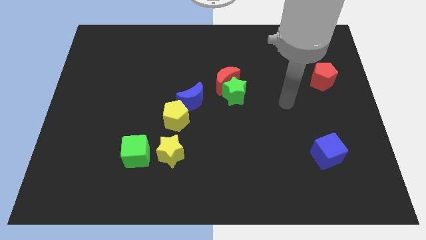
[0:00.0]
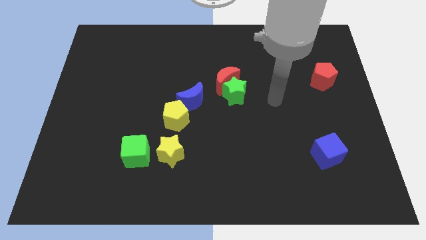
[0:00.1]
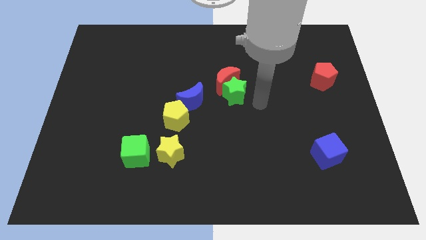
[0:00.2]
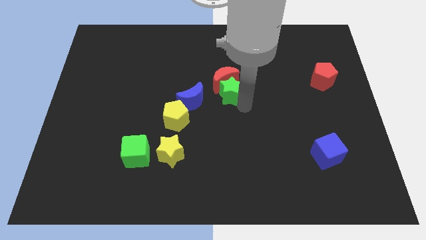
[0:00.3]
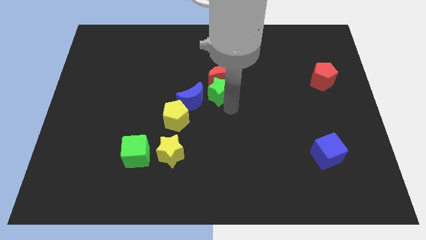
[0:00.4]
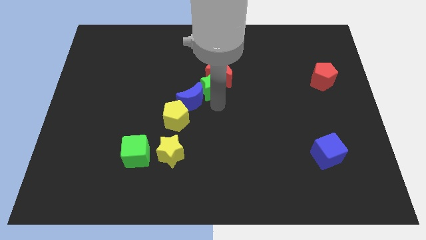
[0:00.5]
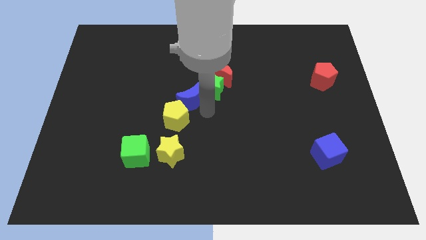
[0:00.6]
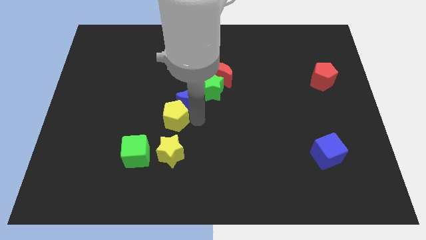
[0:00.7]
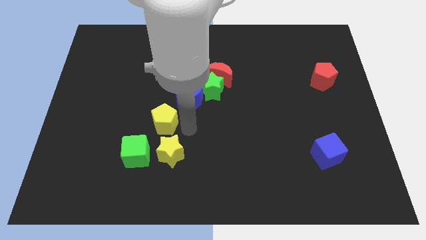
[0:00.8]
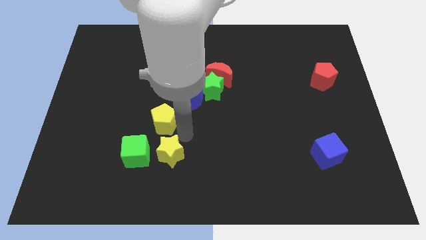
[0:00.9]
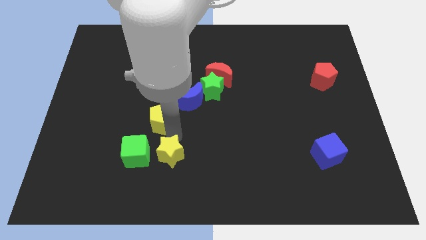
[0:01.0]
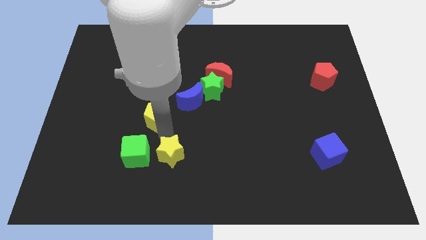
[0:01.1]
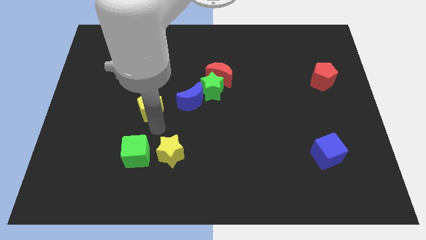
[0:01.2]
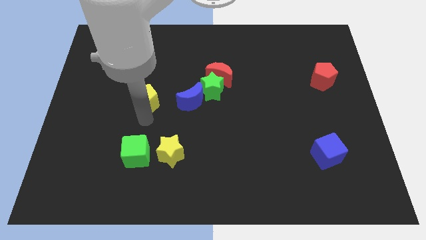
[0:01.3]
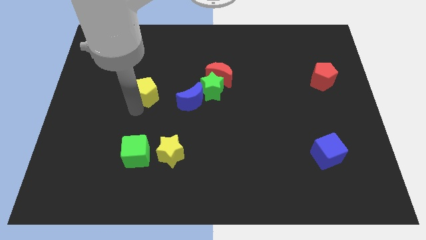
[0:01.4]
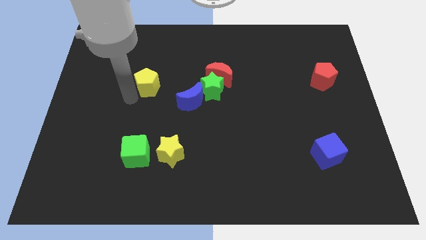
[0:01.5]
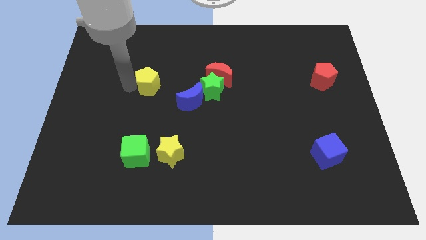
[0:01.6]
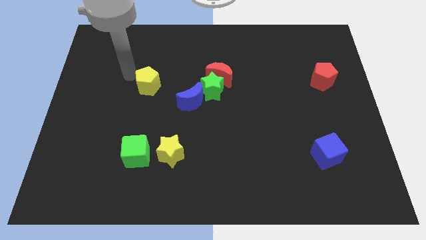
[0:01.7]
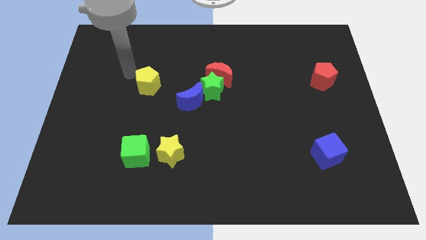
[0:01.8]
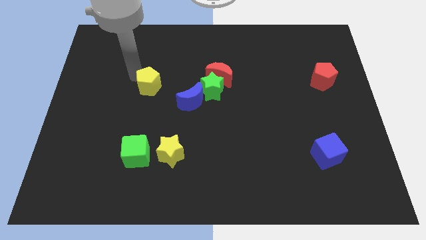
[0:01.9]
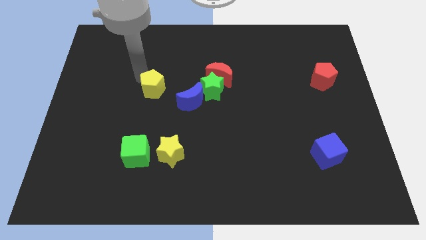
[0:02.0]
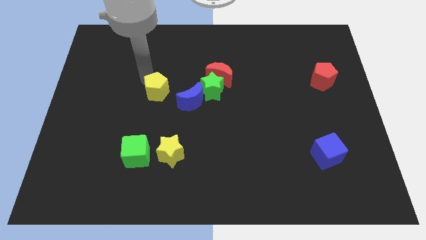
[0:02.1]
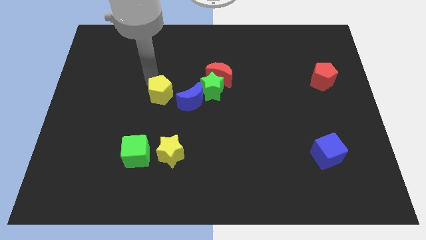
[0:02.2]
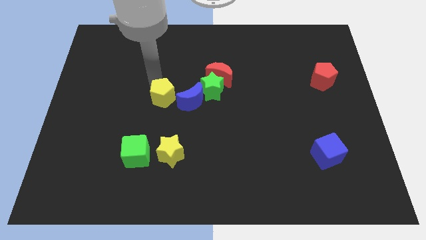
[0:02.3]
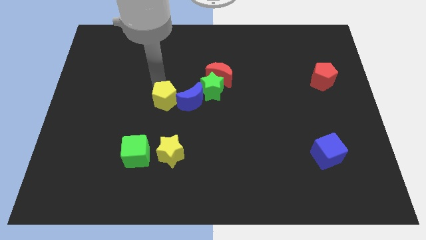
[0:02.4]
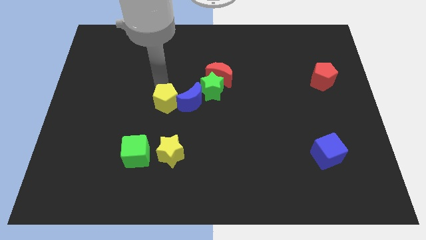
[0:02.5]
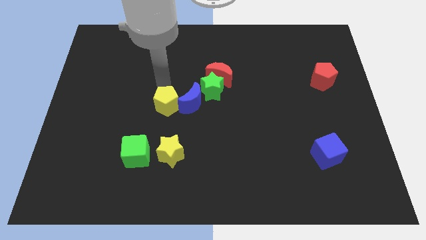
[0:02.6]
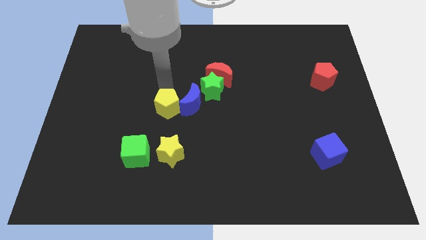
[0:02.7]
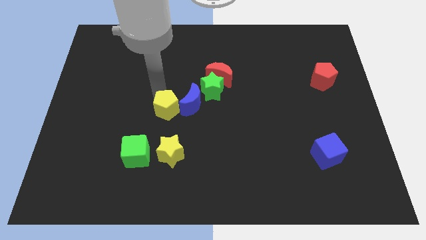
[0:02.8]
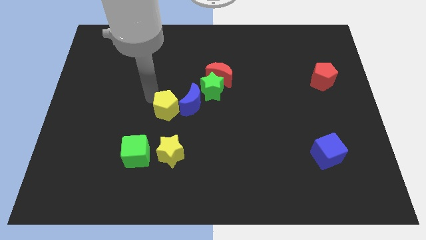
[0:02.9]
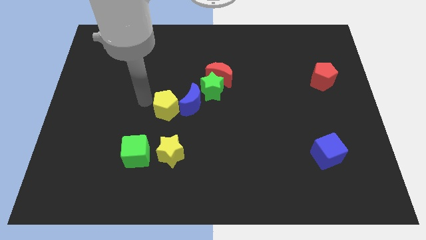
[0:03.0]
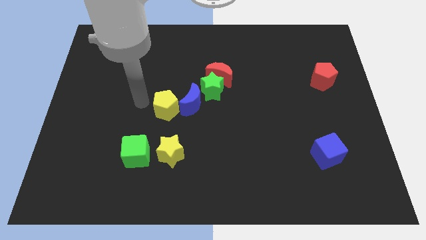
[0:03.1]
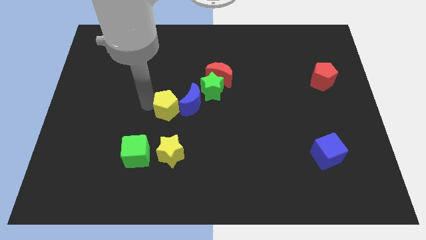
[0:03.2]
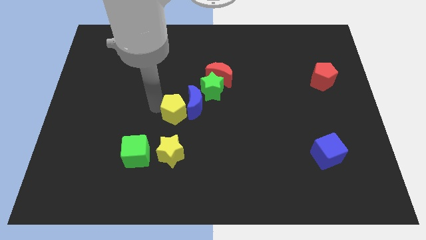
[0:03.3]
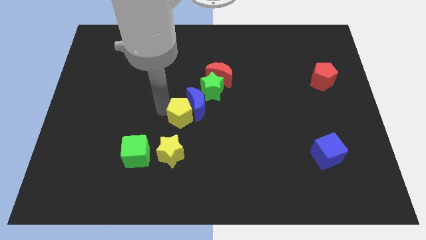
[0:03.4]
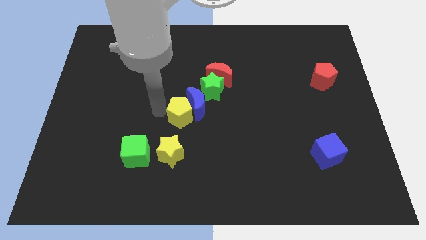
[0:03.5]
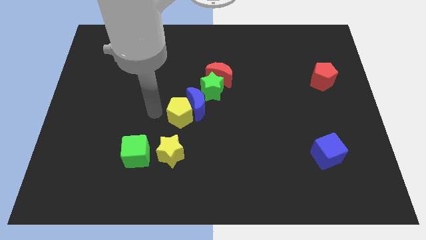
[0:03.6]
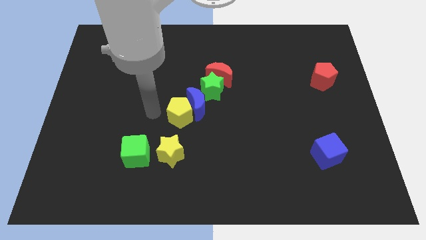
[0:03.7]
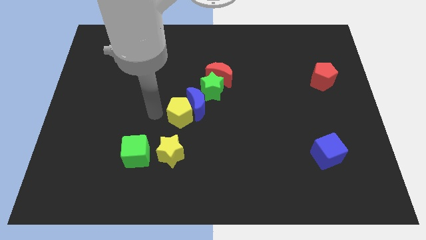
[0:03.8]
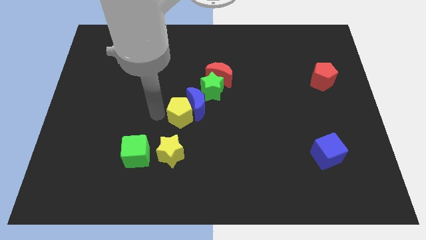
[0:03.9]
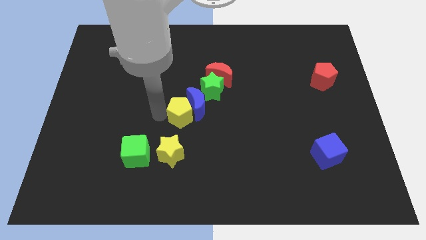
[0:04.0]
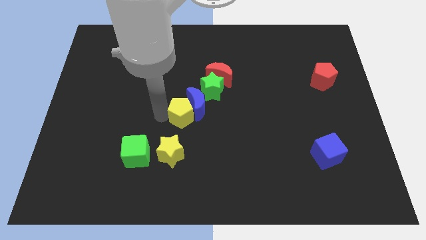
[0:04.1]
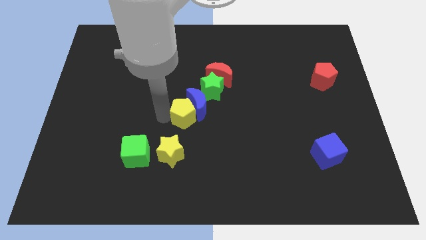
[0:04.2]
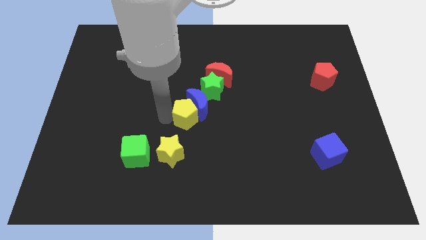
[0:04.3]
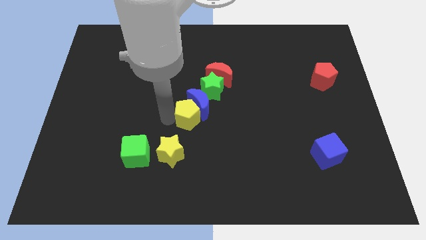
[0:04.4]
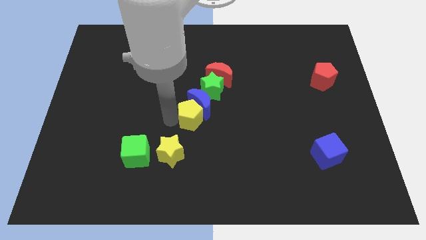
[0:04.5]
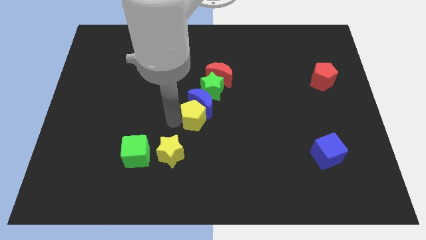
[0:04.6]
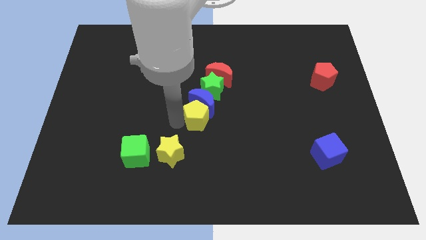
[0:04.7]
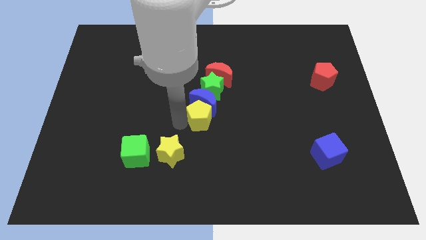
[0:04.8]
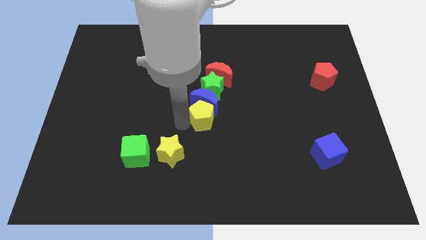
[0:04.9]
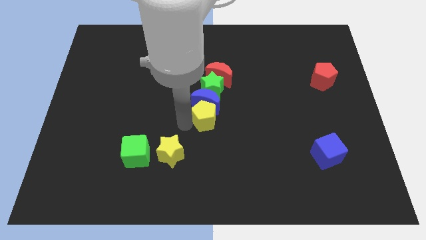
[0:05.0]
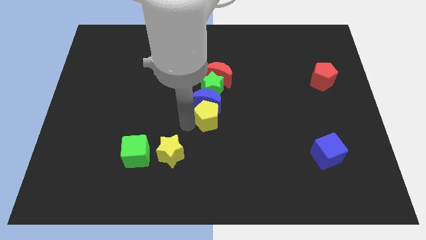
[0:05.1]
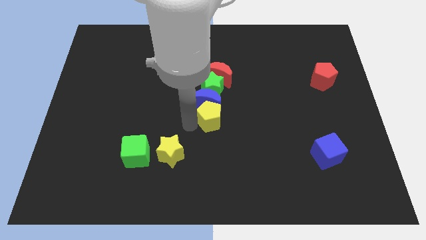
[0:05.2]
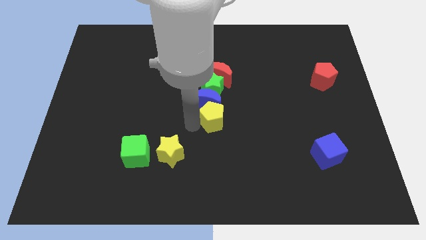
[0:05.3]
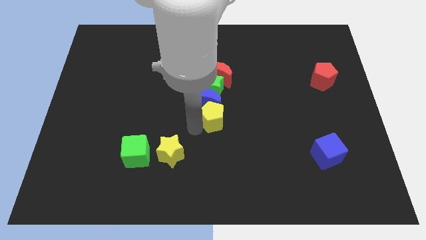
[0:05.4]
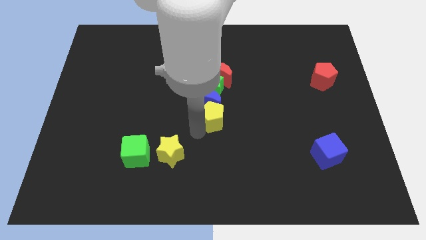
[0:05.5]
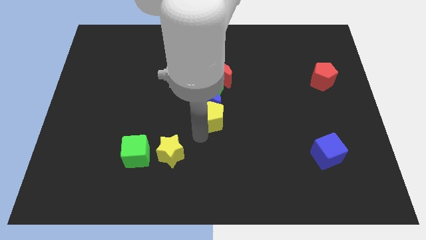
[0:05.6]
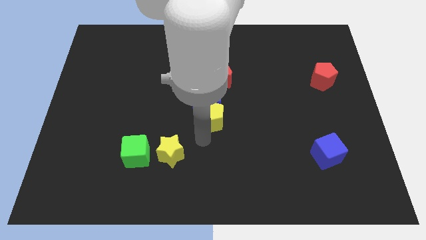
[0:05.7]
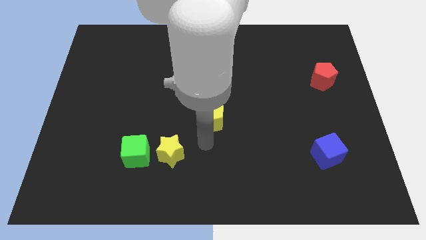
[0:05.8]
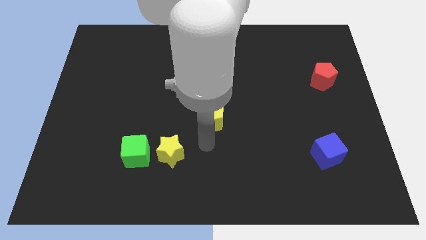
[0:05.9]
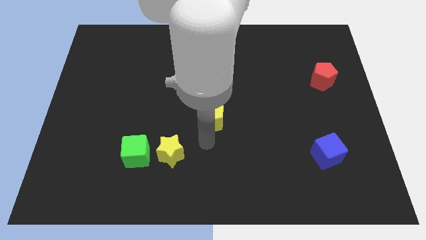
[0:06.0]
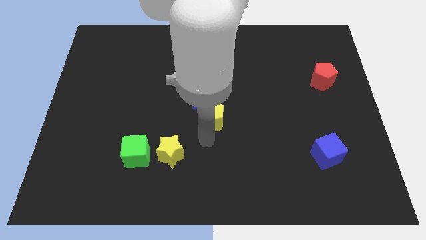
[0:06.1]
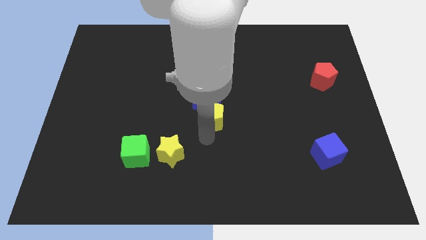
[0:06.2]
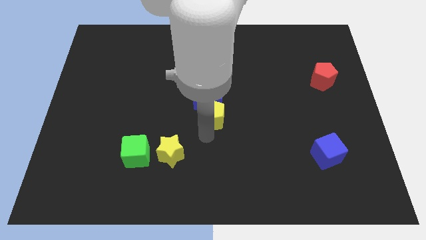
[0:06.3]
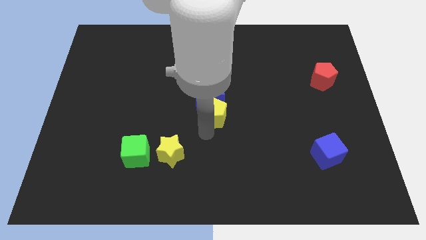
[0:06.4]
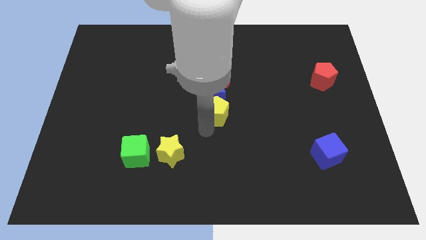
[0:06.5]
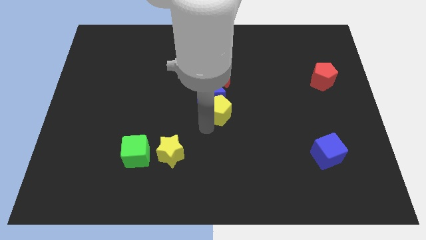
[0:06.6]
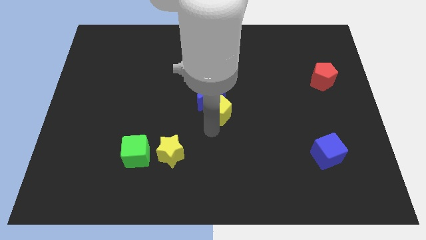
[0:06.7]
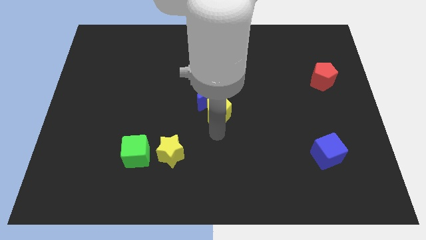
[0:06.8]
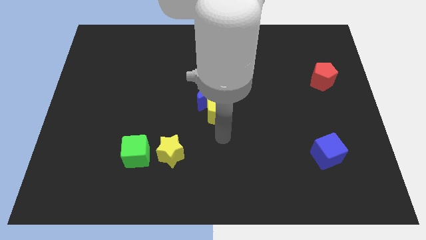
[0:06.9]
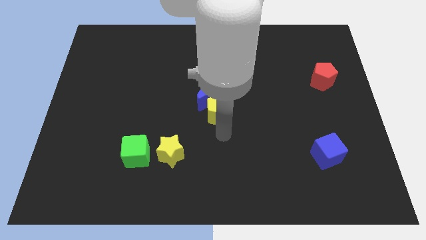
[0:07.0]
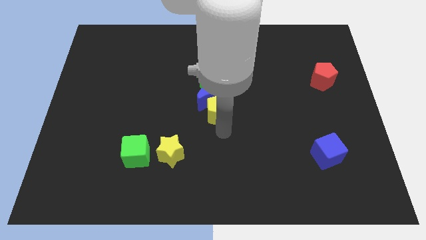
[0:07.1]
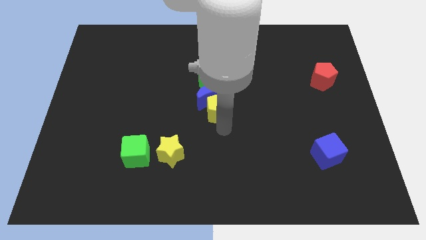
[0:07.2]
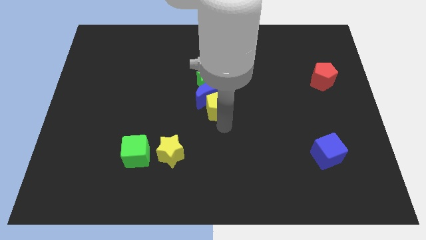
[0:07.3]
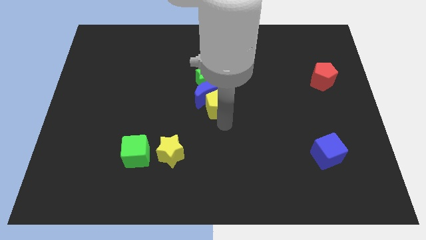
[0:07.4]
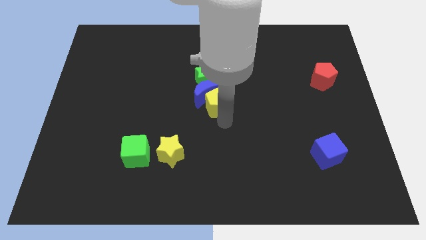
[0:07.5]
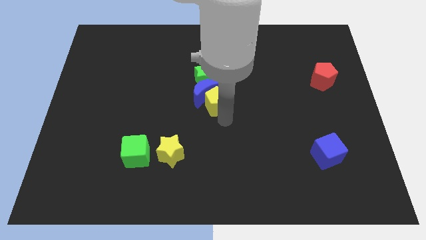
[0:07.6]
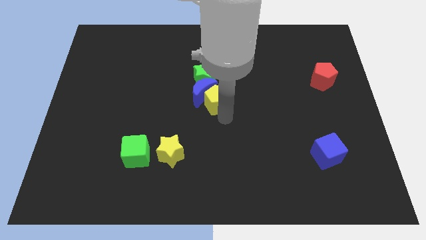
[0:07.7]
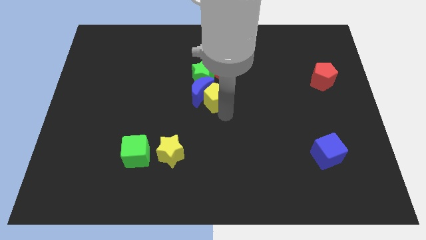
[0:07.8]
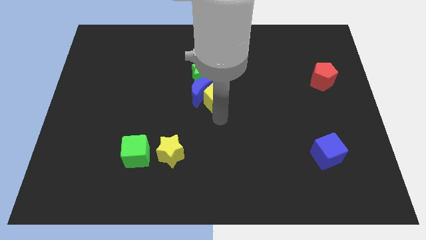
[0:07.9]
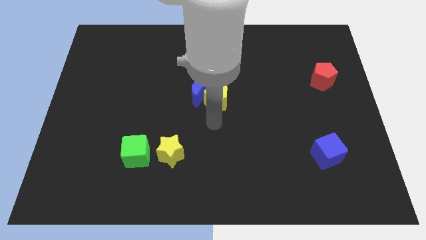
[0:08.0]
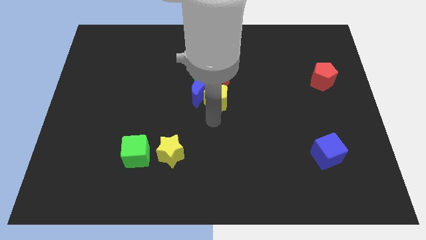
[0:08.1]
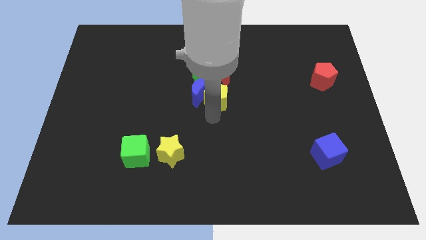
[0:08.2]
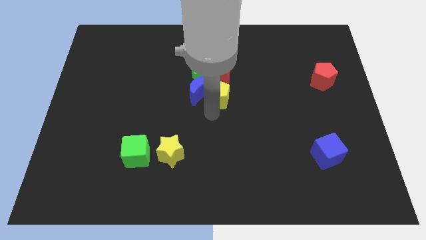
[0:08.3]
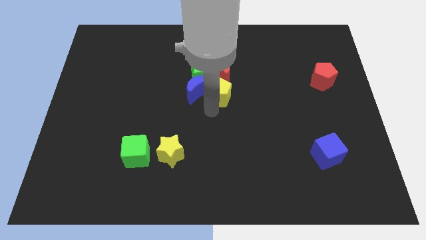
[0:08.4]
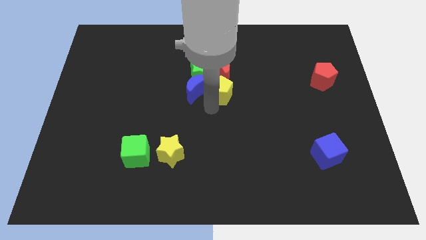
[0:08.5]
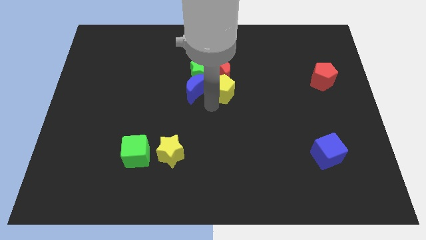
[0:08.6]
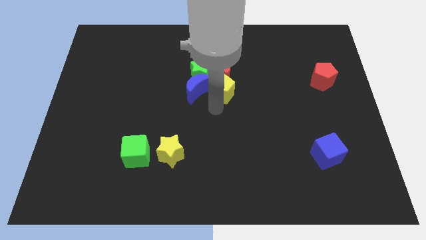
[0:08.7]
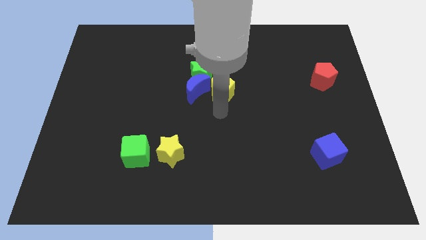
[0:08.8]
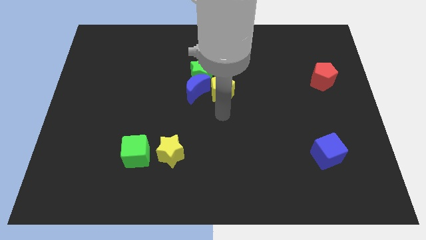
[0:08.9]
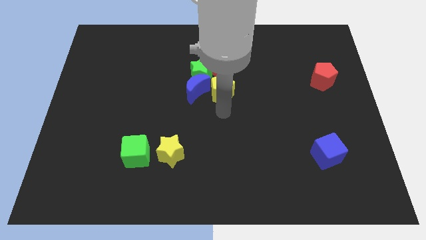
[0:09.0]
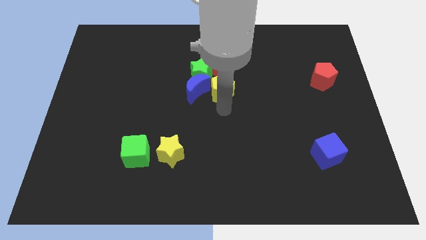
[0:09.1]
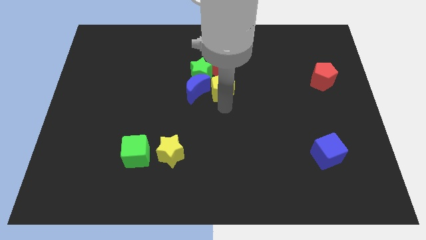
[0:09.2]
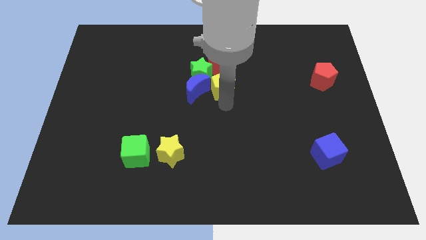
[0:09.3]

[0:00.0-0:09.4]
move the yellow pentagon to the red moon
